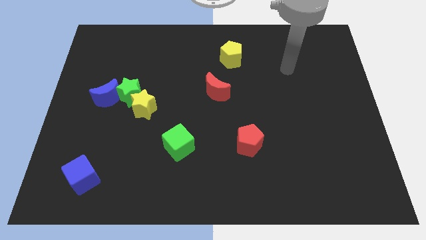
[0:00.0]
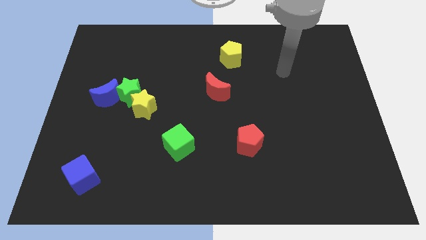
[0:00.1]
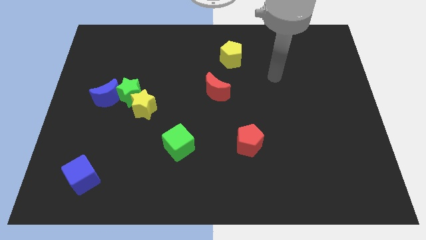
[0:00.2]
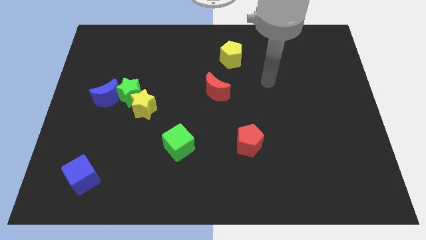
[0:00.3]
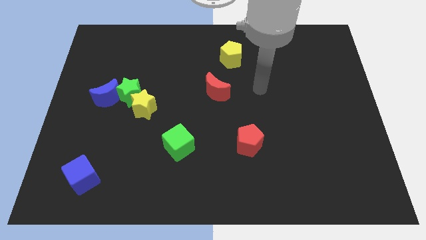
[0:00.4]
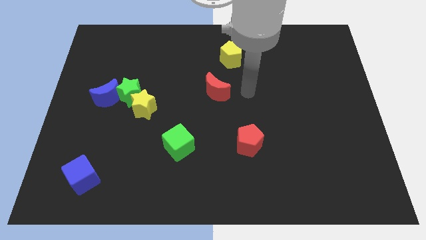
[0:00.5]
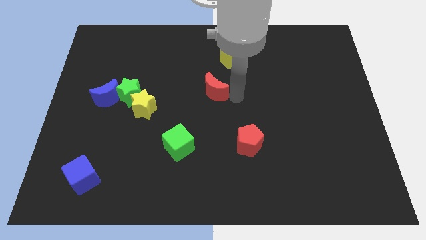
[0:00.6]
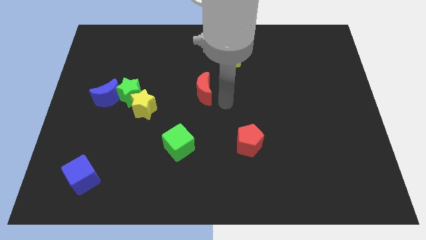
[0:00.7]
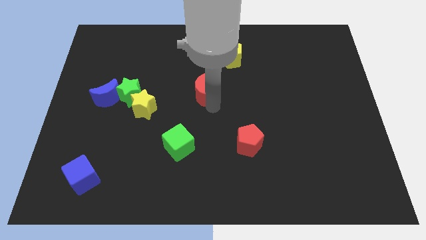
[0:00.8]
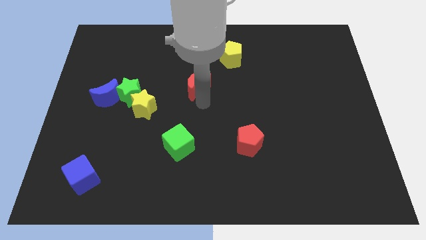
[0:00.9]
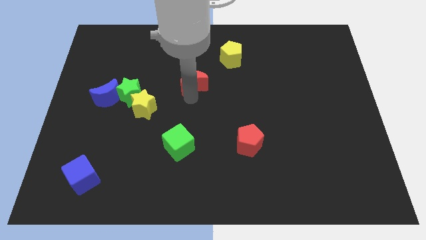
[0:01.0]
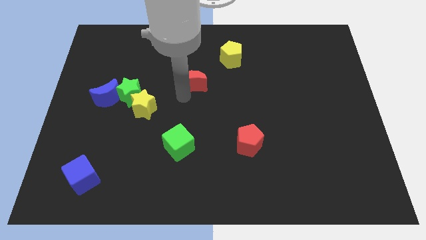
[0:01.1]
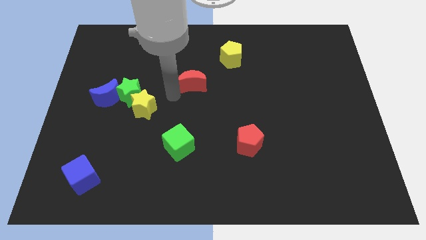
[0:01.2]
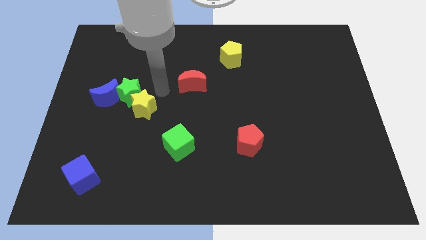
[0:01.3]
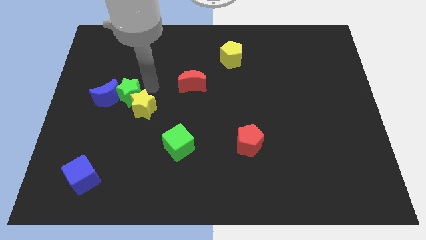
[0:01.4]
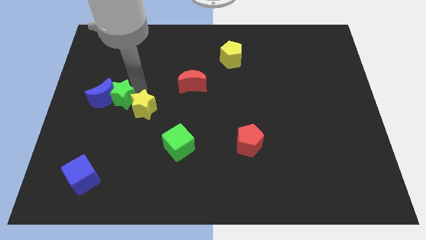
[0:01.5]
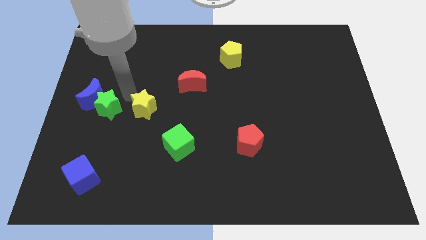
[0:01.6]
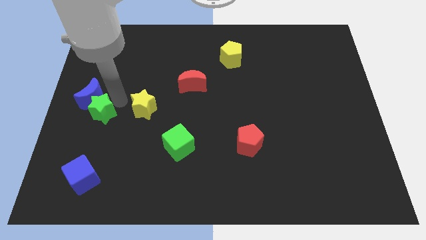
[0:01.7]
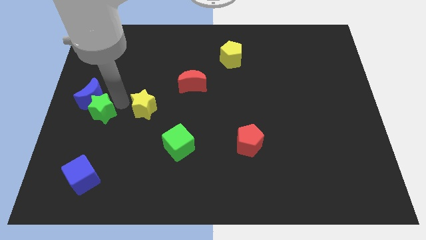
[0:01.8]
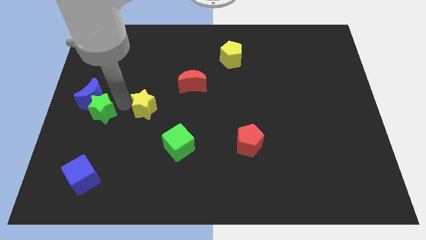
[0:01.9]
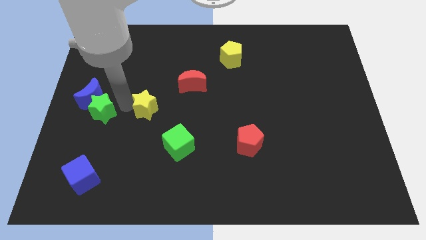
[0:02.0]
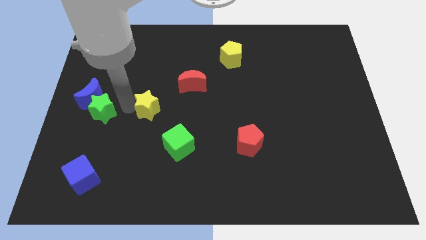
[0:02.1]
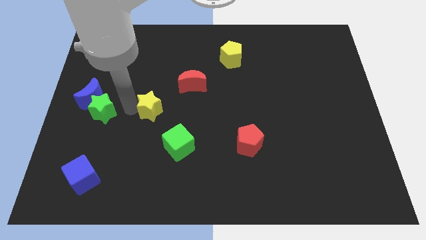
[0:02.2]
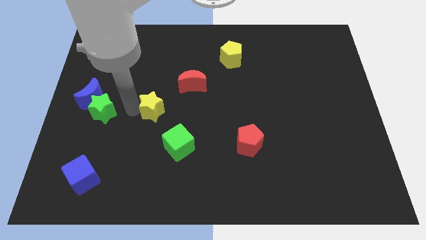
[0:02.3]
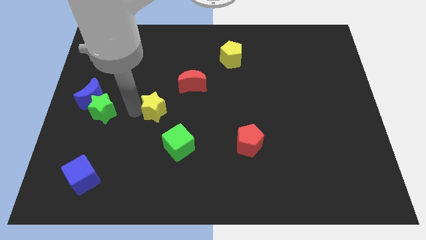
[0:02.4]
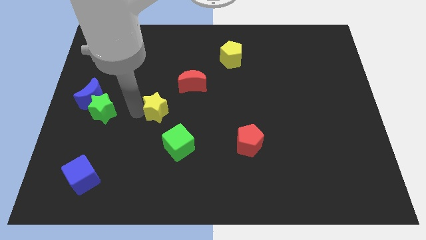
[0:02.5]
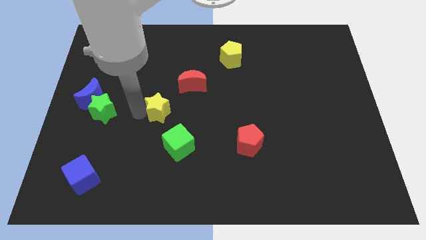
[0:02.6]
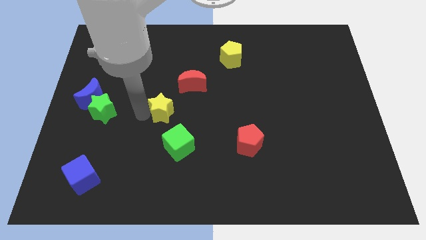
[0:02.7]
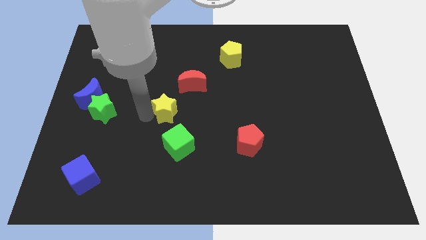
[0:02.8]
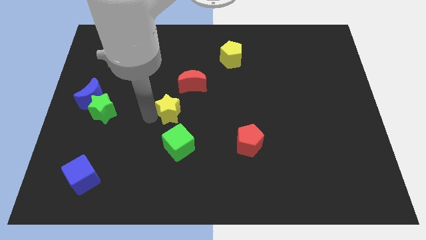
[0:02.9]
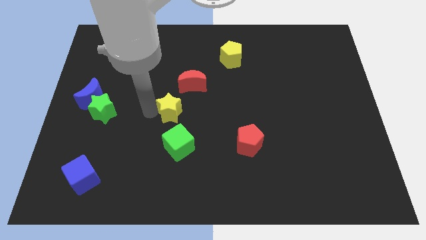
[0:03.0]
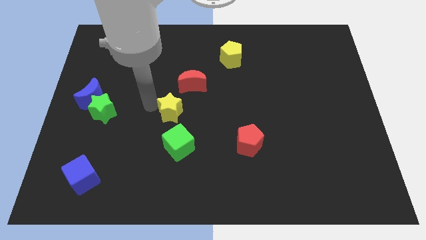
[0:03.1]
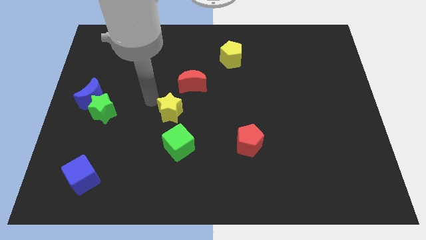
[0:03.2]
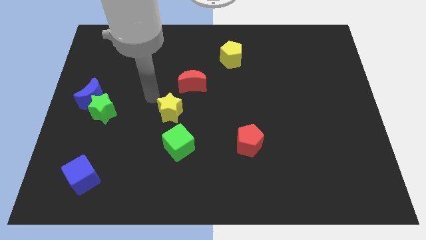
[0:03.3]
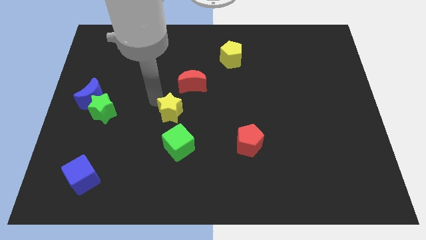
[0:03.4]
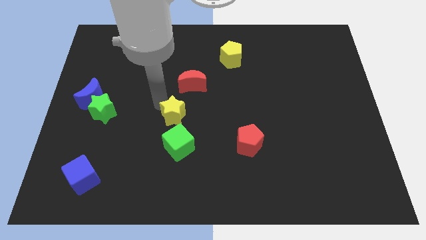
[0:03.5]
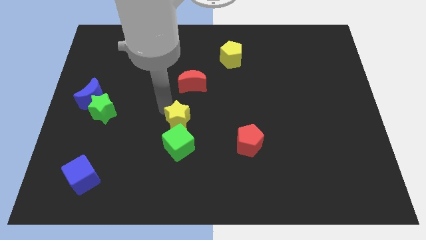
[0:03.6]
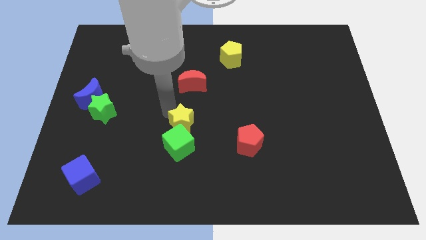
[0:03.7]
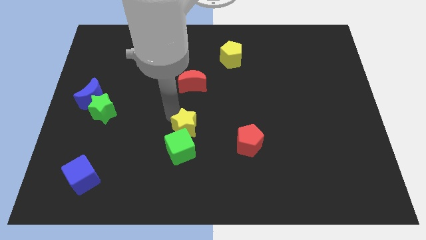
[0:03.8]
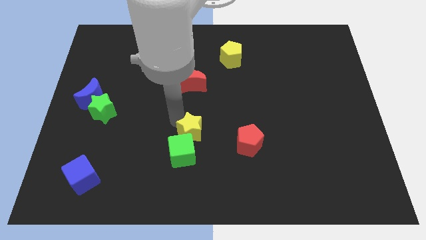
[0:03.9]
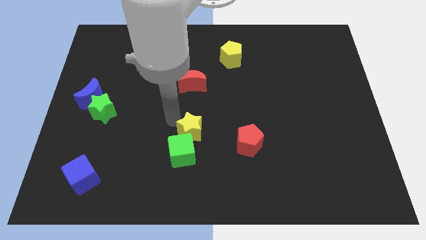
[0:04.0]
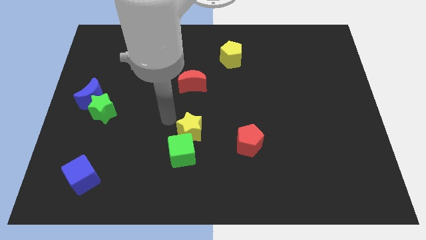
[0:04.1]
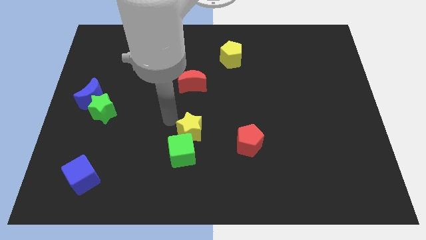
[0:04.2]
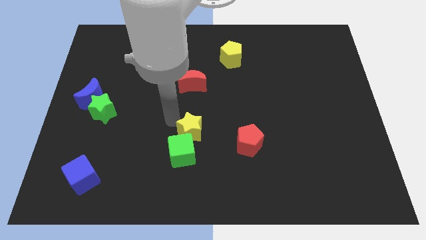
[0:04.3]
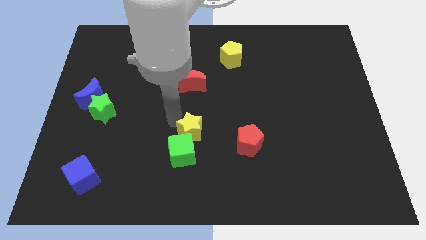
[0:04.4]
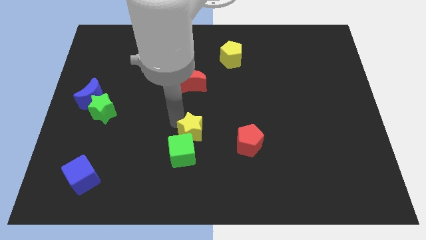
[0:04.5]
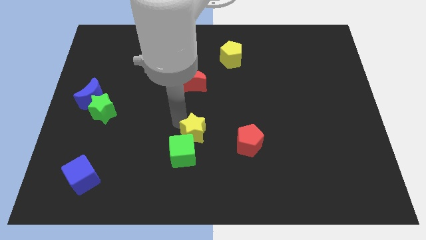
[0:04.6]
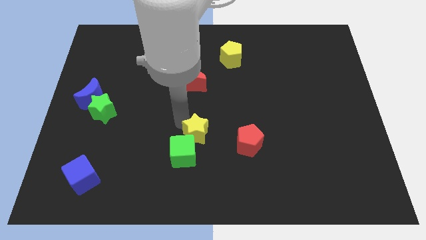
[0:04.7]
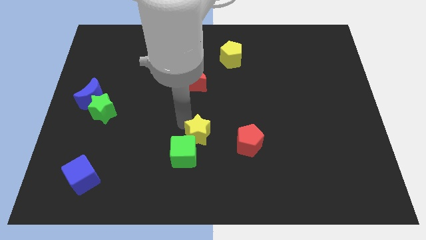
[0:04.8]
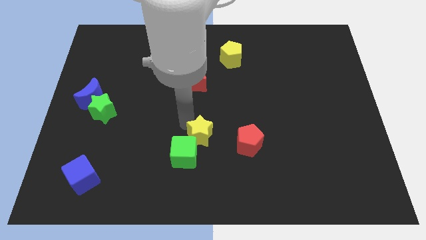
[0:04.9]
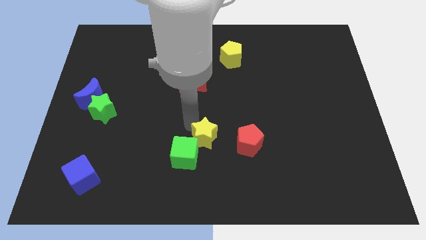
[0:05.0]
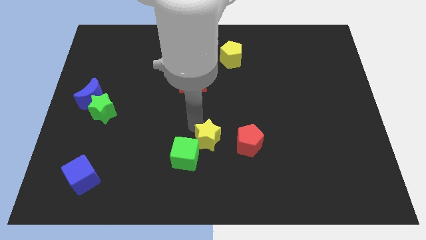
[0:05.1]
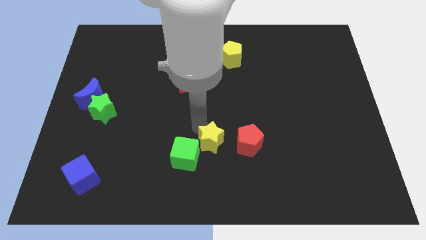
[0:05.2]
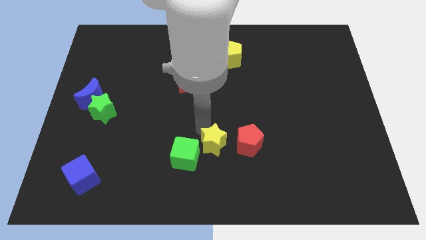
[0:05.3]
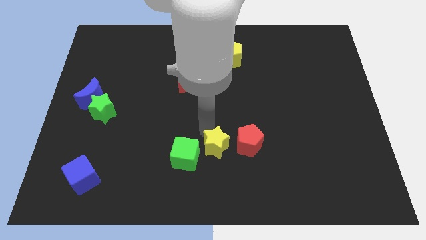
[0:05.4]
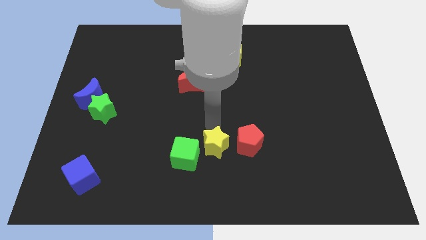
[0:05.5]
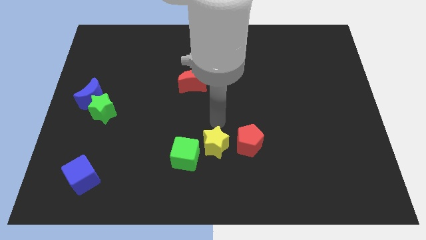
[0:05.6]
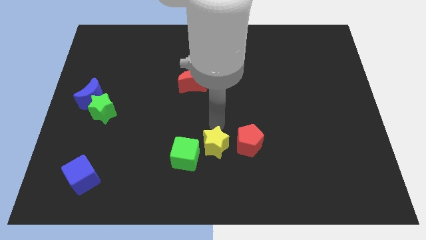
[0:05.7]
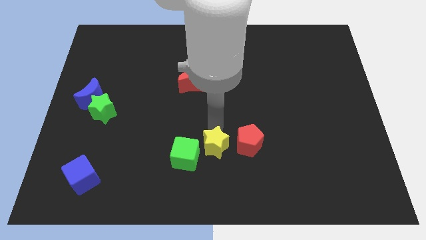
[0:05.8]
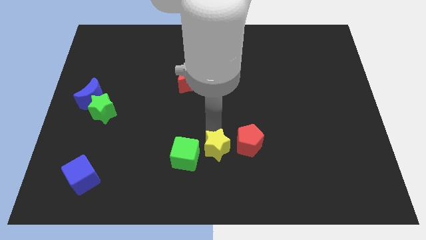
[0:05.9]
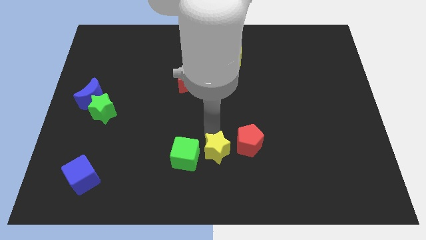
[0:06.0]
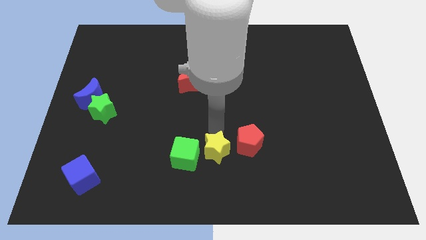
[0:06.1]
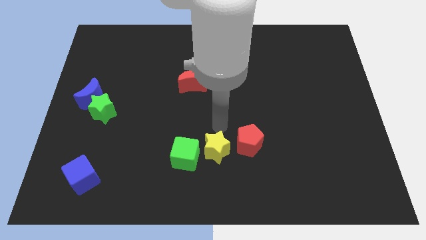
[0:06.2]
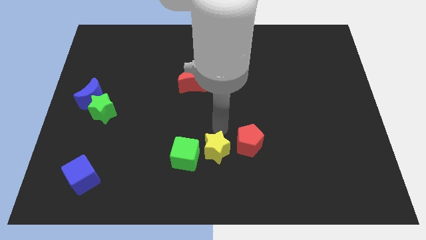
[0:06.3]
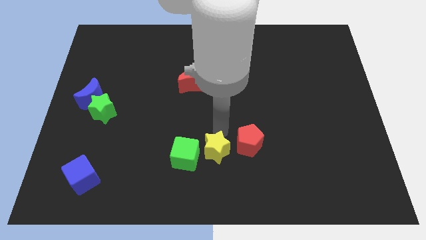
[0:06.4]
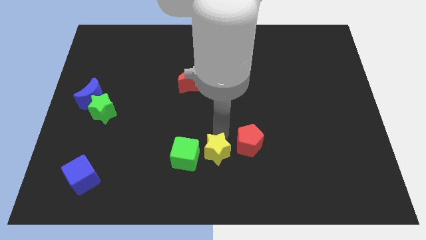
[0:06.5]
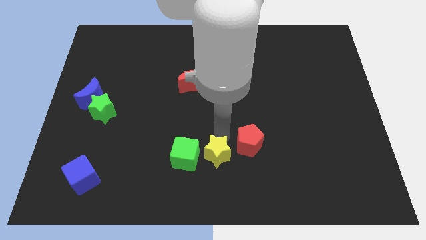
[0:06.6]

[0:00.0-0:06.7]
move the yellow star to the bottom right of the green cube
